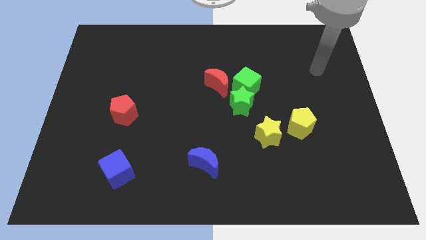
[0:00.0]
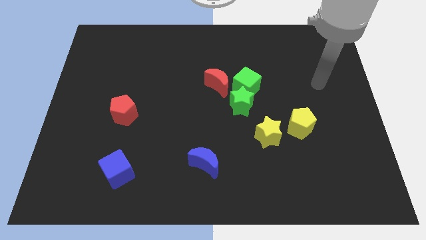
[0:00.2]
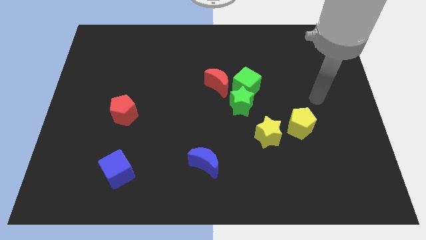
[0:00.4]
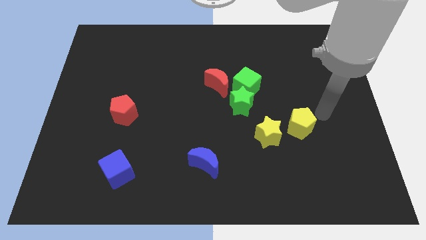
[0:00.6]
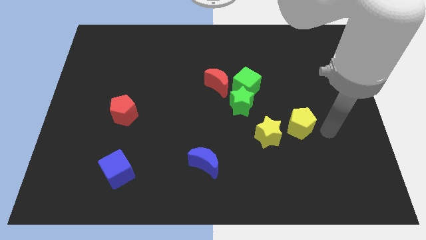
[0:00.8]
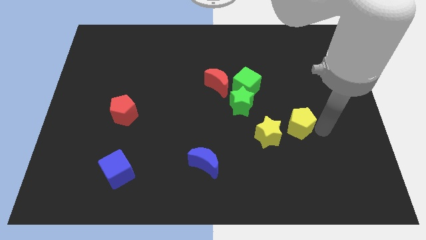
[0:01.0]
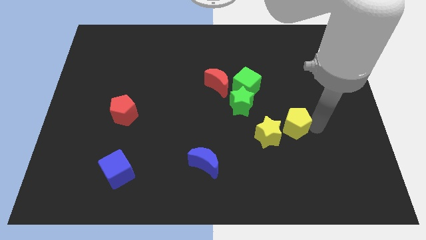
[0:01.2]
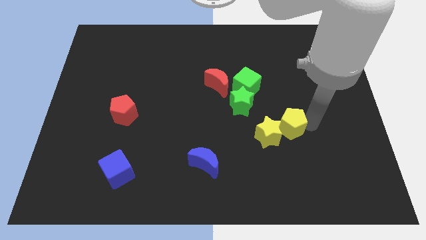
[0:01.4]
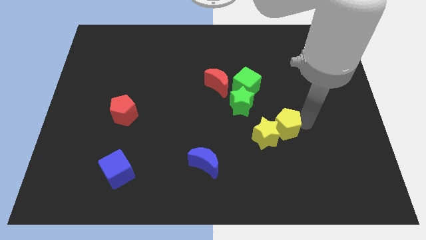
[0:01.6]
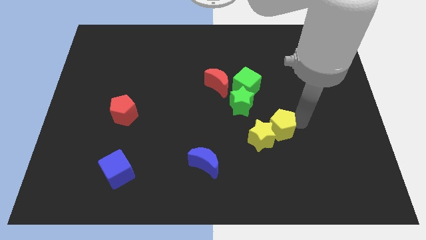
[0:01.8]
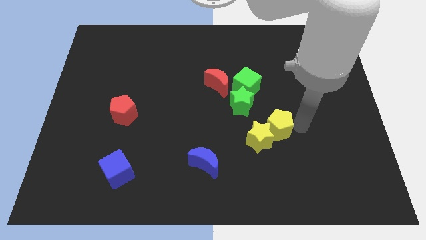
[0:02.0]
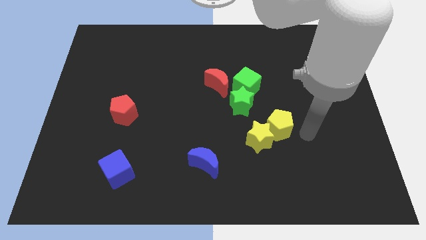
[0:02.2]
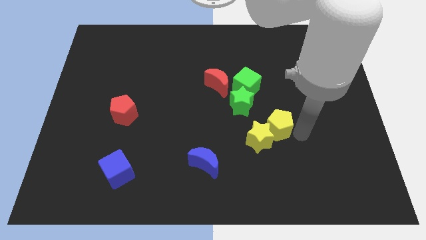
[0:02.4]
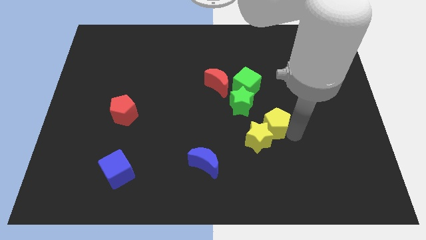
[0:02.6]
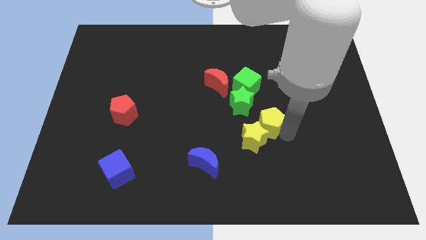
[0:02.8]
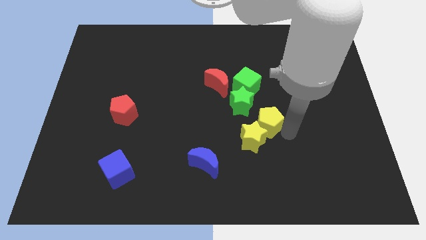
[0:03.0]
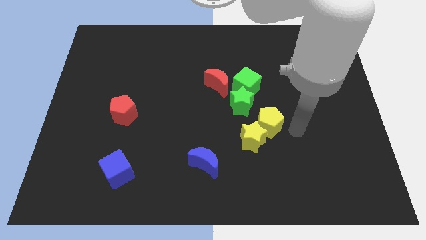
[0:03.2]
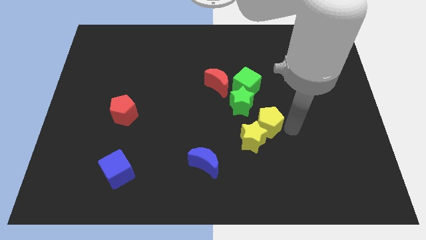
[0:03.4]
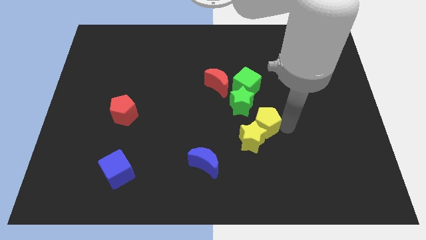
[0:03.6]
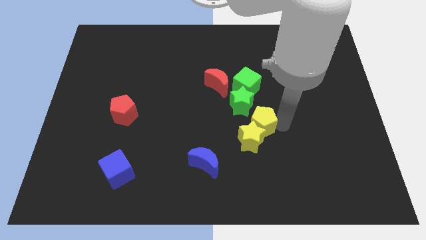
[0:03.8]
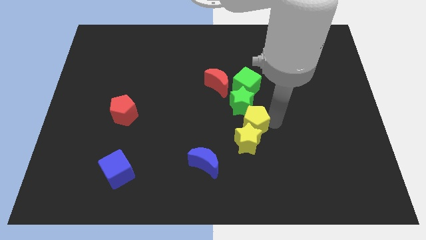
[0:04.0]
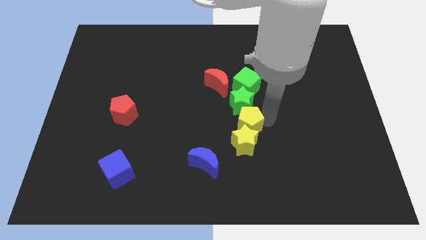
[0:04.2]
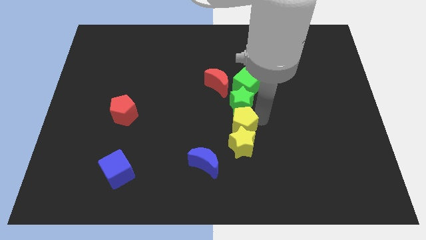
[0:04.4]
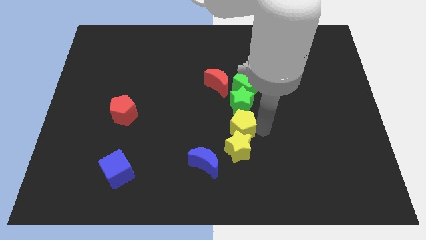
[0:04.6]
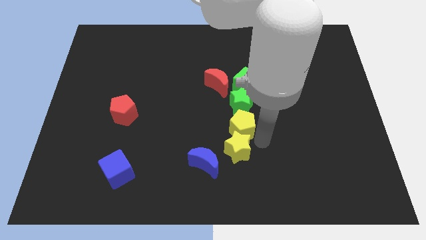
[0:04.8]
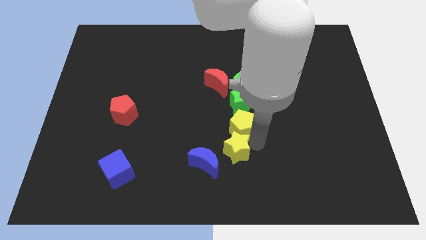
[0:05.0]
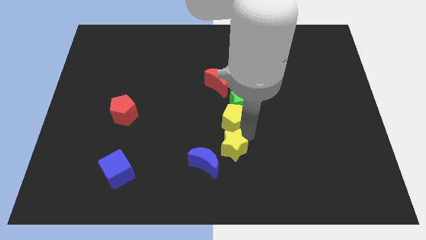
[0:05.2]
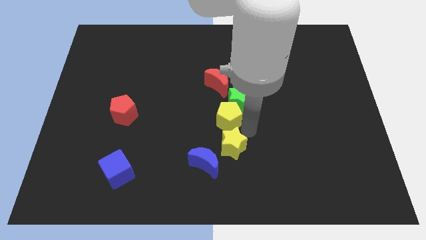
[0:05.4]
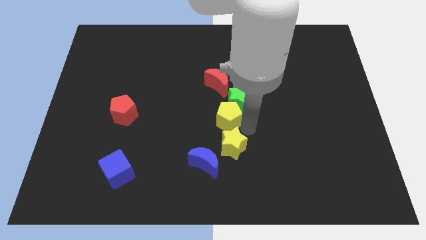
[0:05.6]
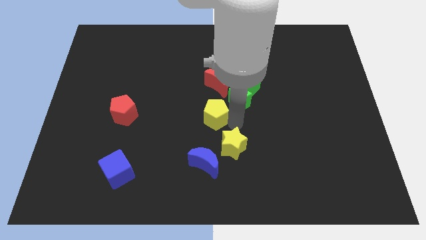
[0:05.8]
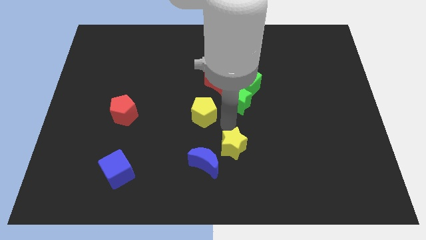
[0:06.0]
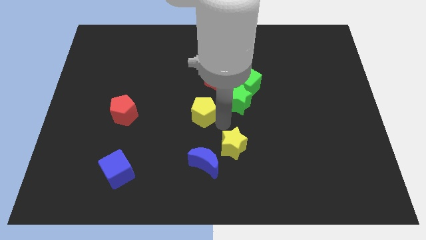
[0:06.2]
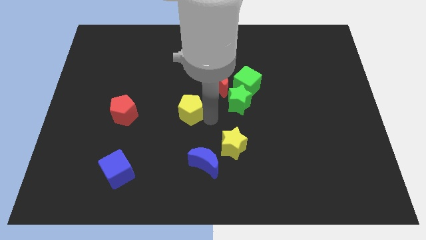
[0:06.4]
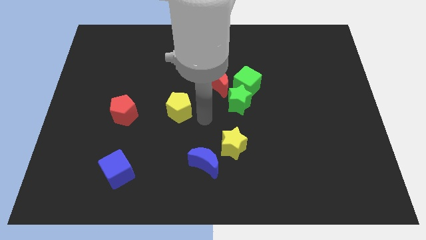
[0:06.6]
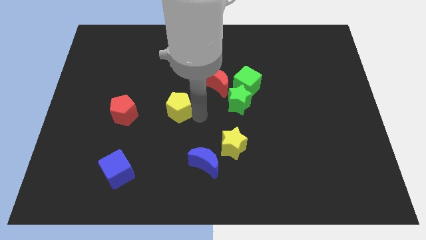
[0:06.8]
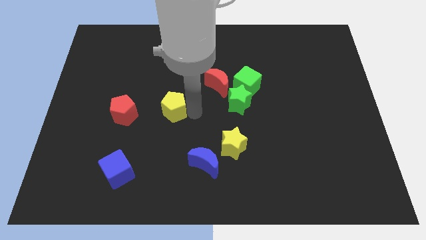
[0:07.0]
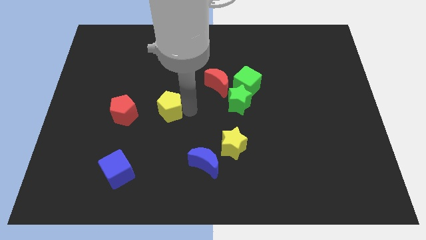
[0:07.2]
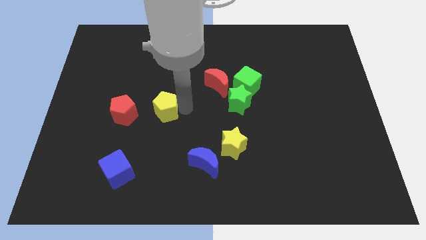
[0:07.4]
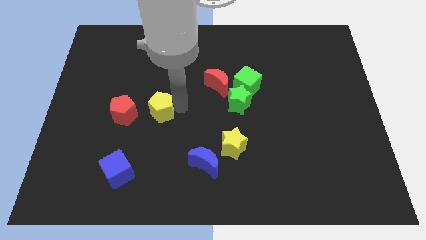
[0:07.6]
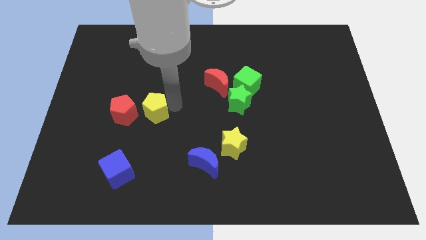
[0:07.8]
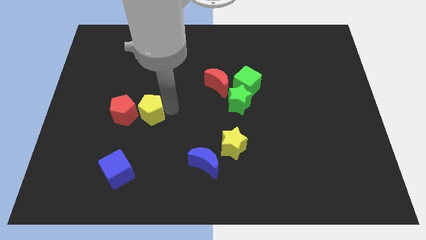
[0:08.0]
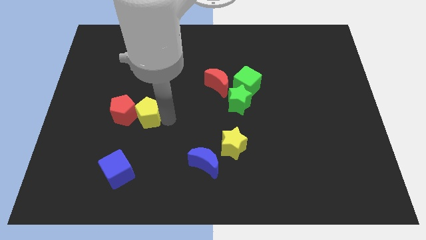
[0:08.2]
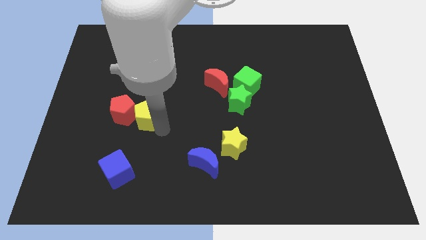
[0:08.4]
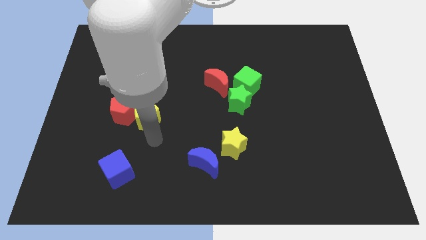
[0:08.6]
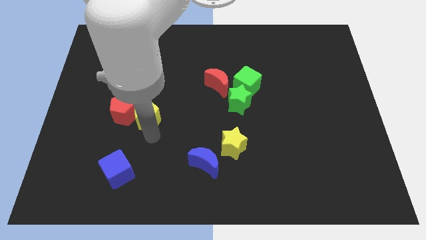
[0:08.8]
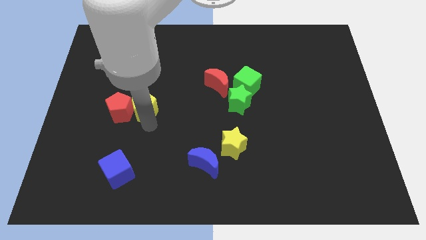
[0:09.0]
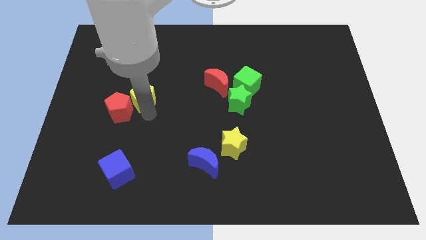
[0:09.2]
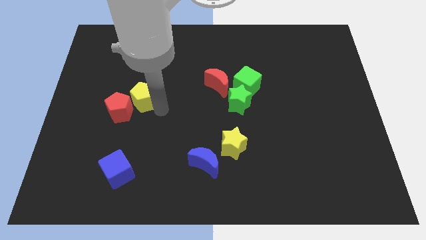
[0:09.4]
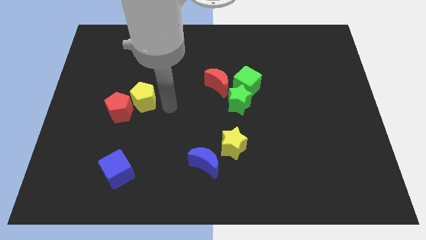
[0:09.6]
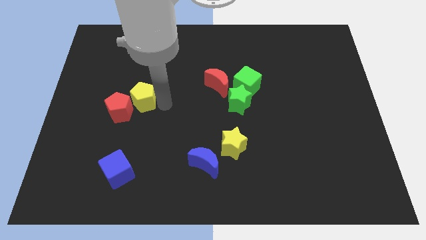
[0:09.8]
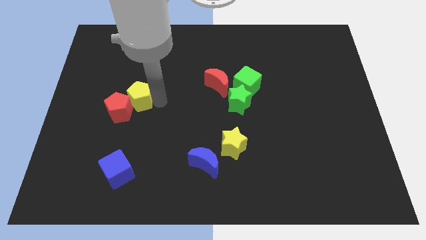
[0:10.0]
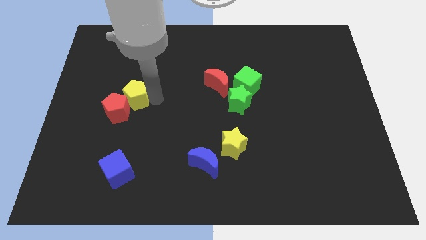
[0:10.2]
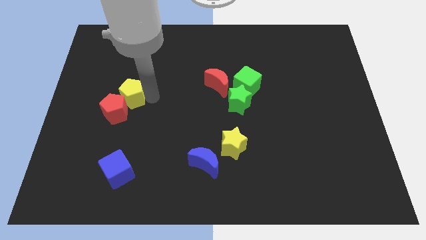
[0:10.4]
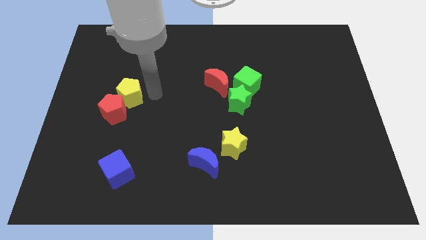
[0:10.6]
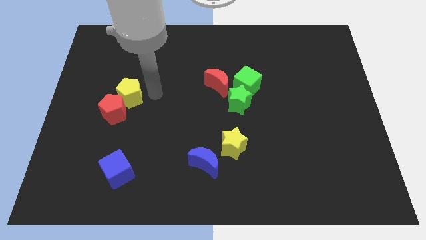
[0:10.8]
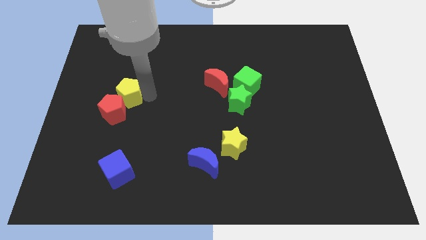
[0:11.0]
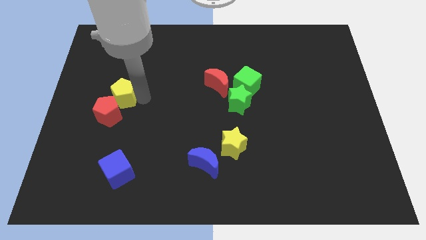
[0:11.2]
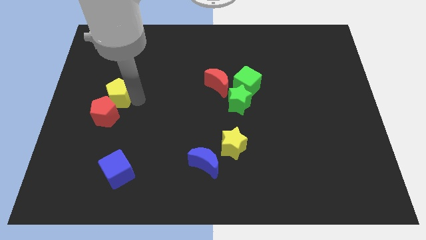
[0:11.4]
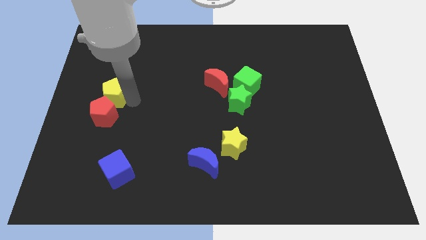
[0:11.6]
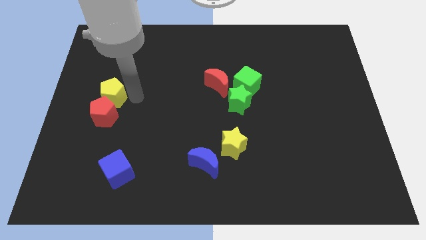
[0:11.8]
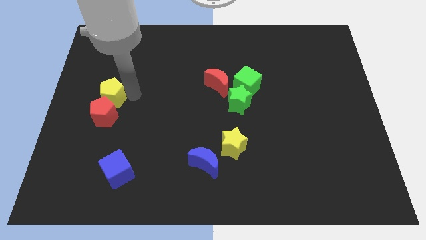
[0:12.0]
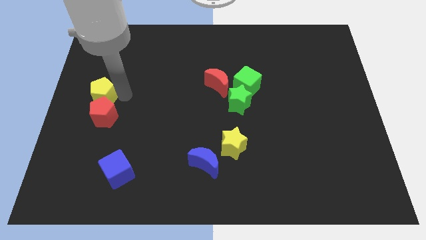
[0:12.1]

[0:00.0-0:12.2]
put the yellow pentagon to the center left

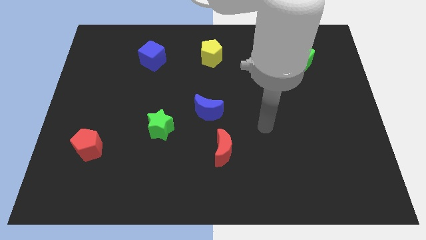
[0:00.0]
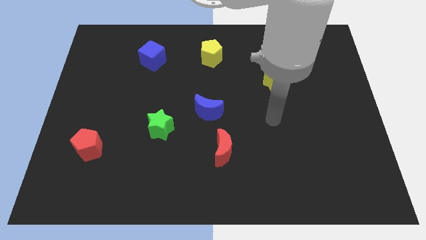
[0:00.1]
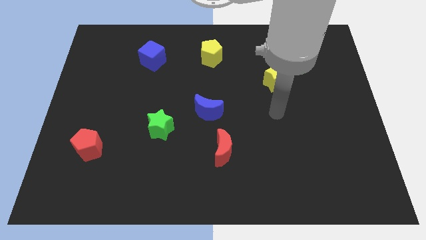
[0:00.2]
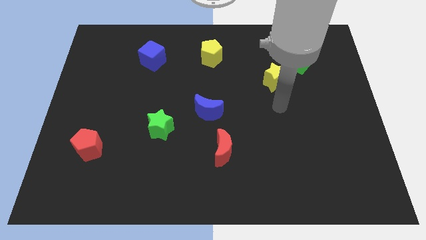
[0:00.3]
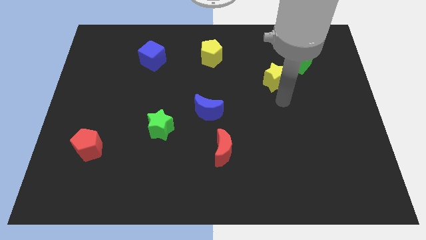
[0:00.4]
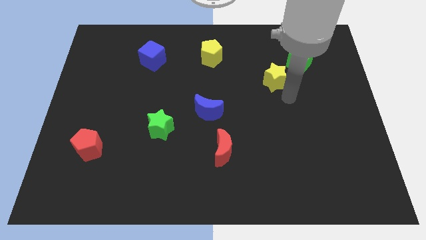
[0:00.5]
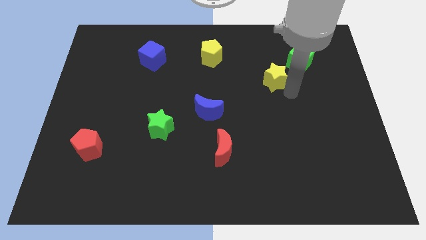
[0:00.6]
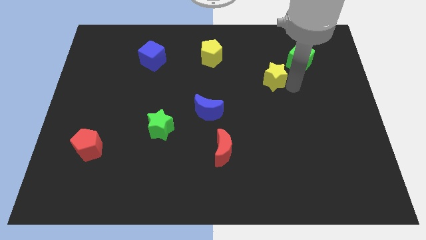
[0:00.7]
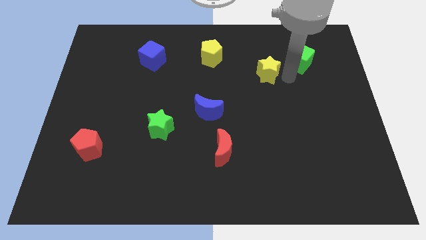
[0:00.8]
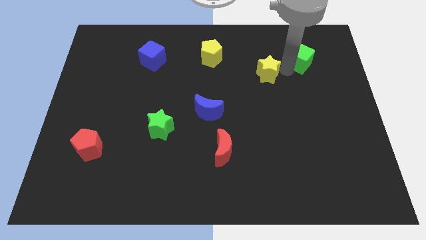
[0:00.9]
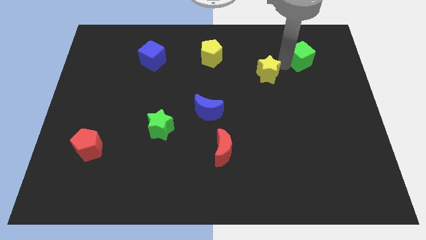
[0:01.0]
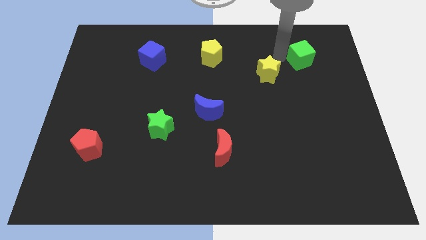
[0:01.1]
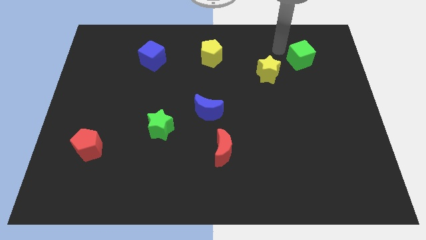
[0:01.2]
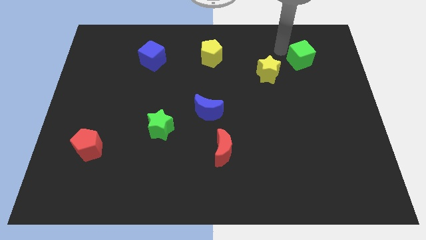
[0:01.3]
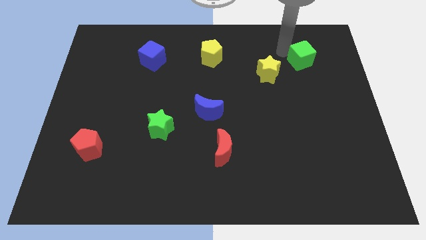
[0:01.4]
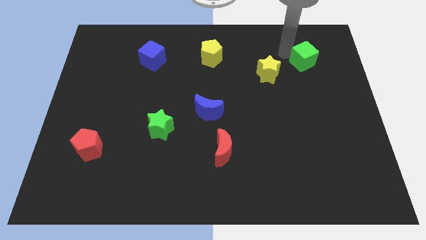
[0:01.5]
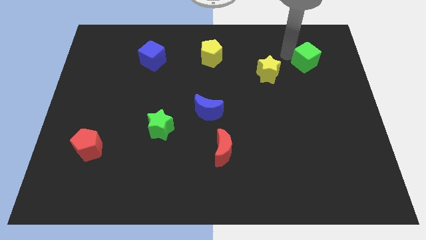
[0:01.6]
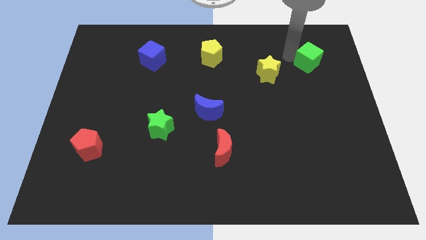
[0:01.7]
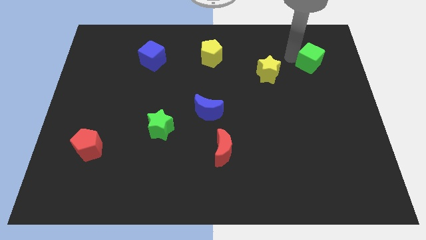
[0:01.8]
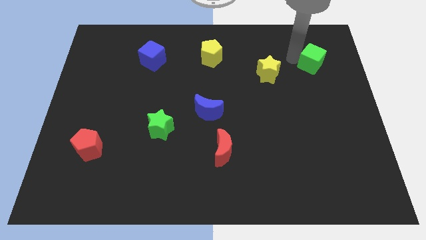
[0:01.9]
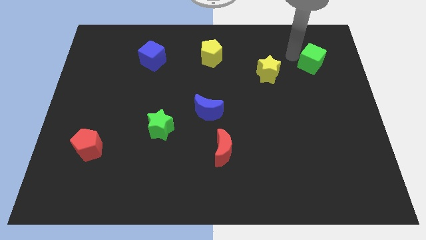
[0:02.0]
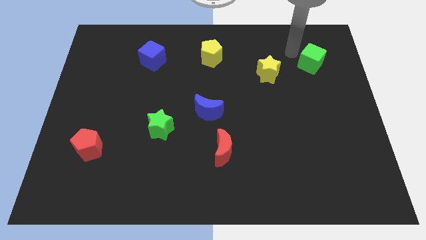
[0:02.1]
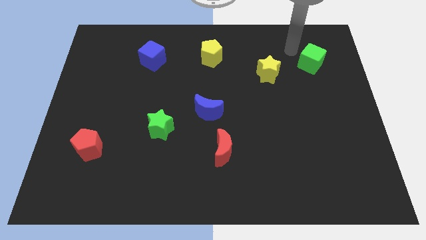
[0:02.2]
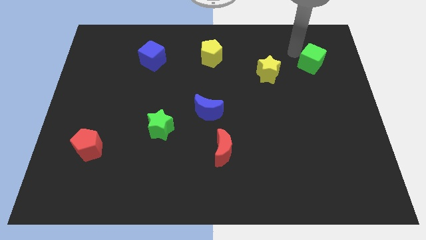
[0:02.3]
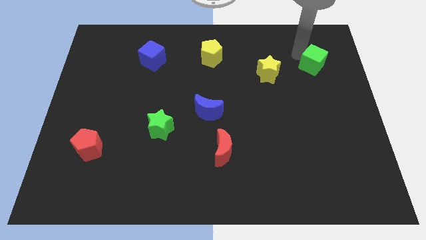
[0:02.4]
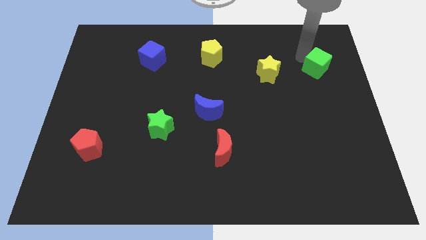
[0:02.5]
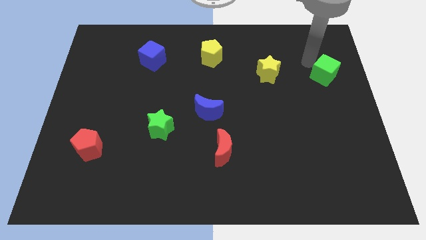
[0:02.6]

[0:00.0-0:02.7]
slide the green cube to the right side of the board
